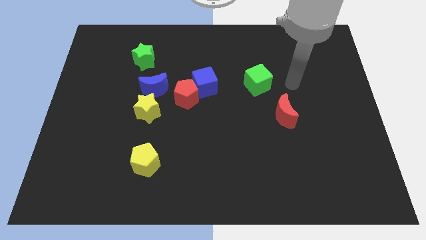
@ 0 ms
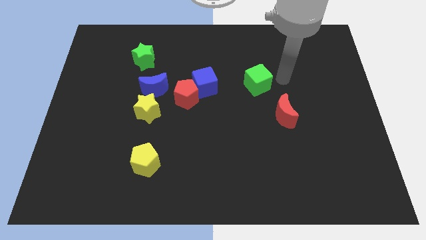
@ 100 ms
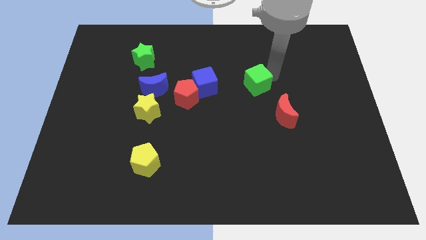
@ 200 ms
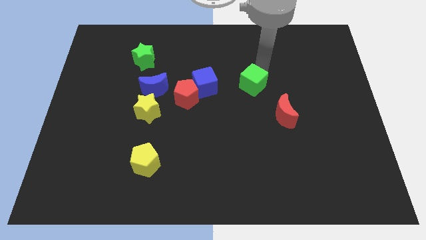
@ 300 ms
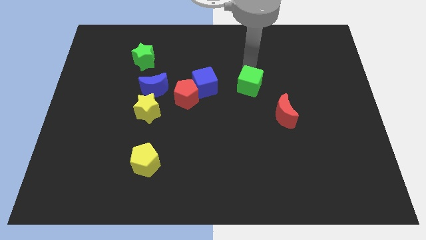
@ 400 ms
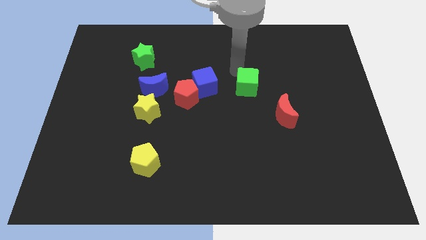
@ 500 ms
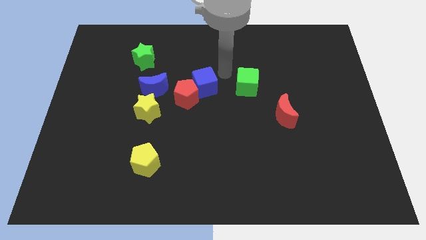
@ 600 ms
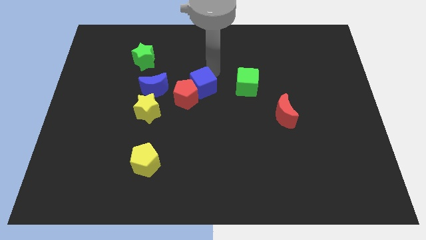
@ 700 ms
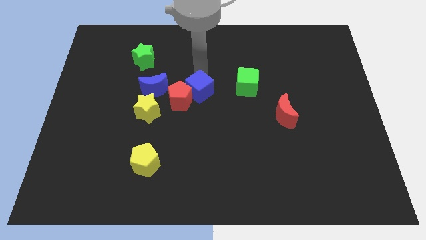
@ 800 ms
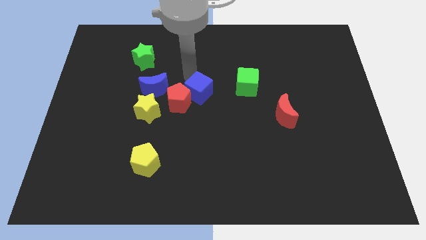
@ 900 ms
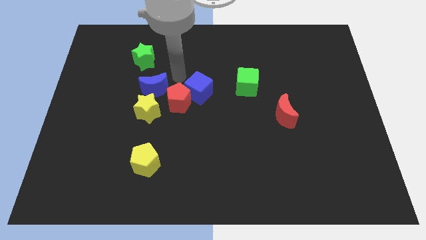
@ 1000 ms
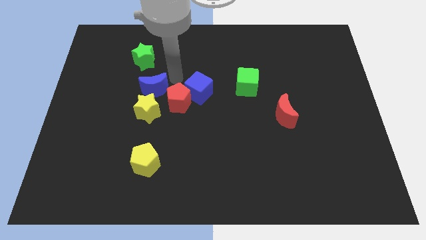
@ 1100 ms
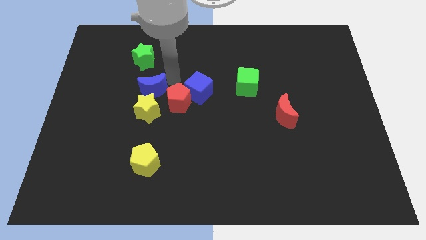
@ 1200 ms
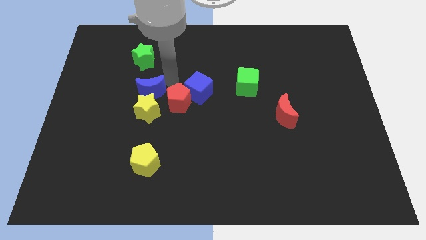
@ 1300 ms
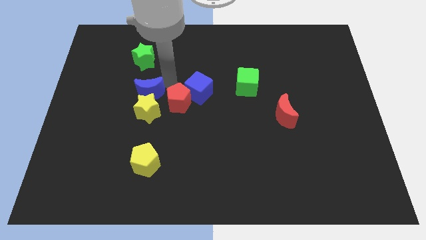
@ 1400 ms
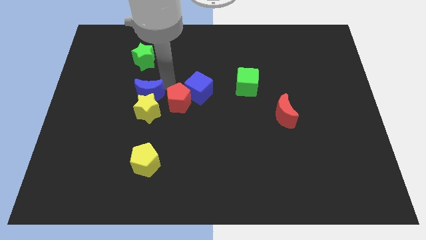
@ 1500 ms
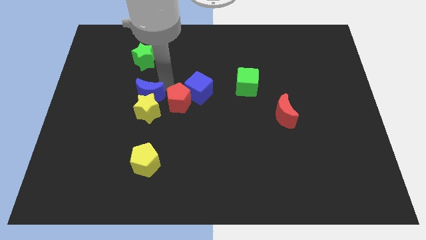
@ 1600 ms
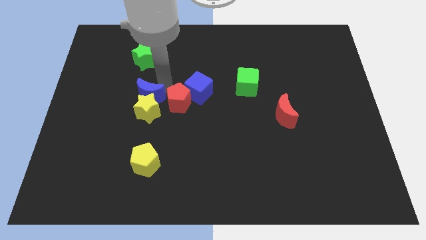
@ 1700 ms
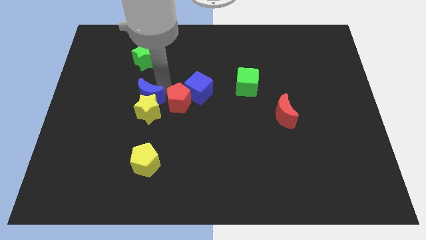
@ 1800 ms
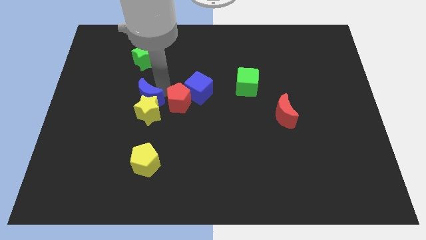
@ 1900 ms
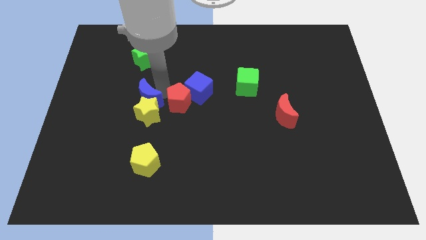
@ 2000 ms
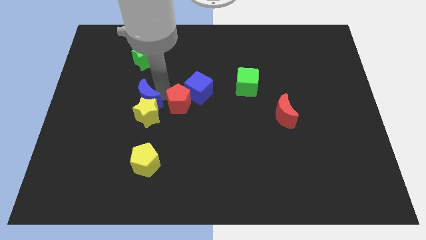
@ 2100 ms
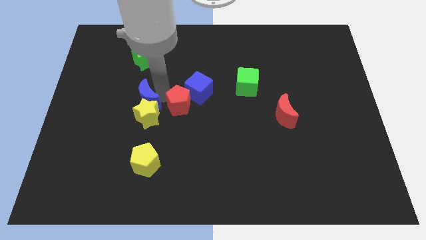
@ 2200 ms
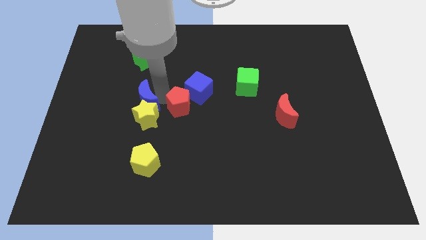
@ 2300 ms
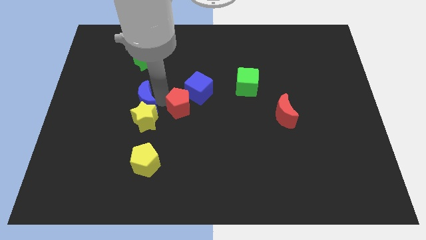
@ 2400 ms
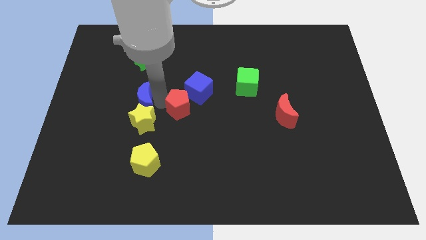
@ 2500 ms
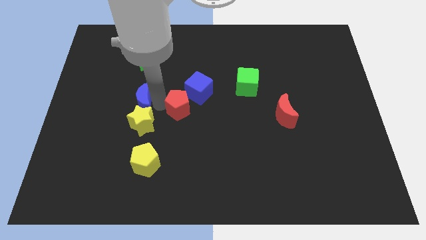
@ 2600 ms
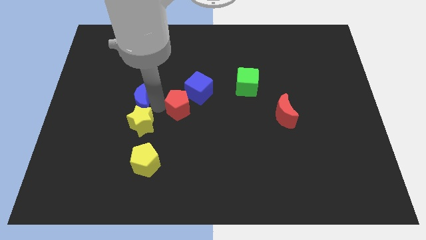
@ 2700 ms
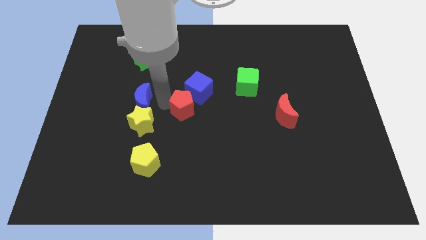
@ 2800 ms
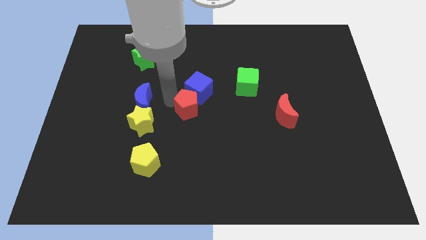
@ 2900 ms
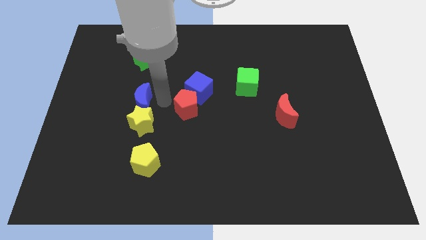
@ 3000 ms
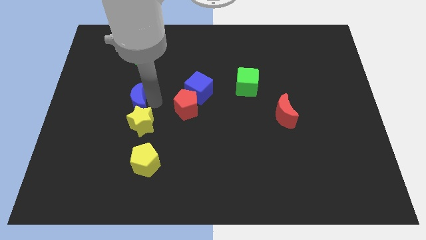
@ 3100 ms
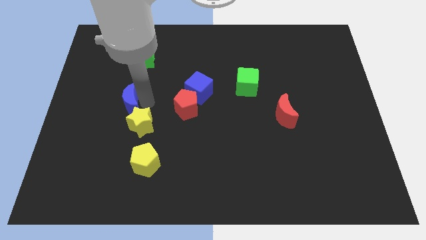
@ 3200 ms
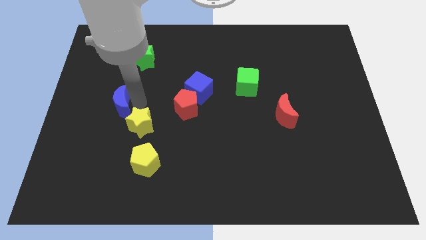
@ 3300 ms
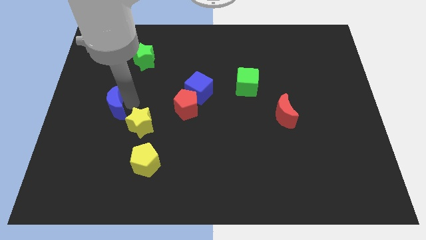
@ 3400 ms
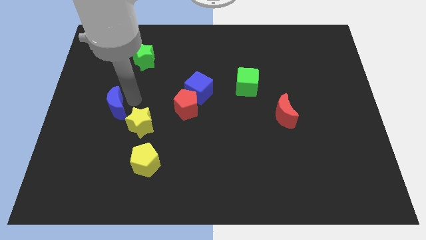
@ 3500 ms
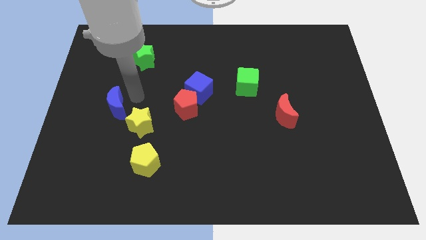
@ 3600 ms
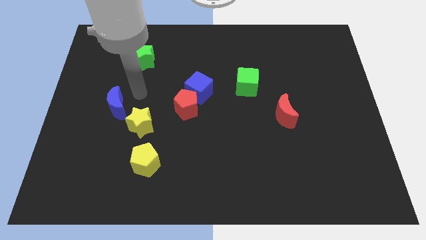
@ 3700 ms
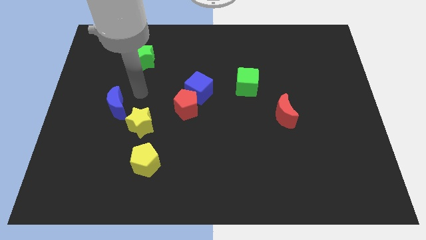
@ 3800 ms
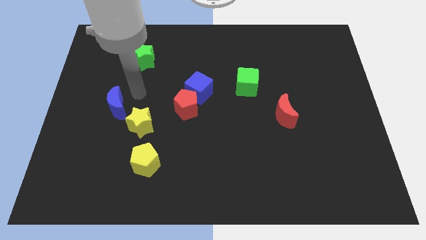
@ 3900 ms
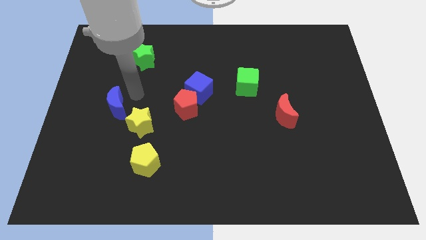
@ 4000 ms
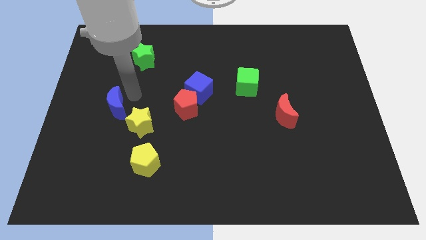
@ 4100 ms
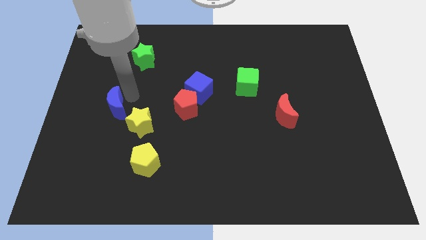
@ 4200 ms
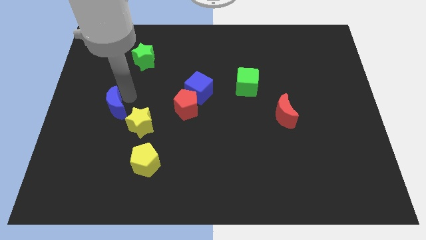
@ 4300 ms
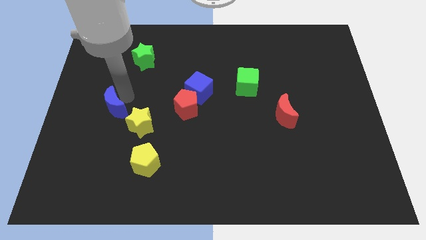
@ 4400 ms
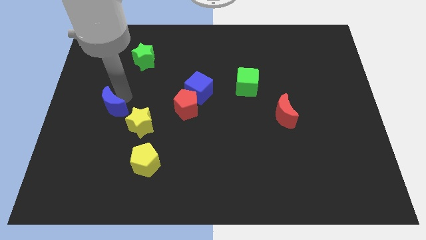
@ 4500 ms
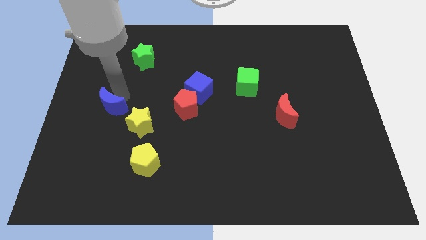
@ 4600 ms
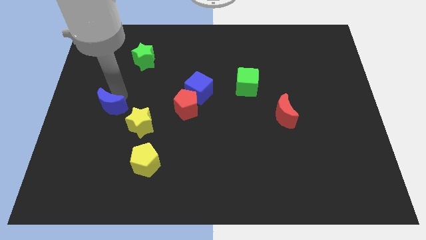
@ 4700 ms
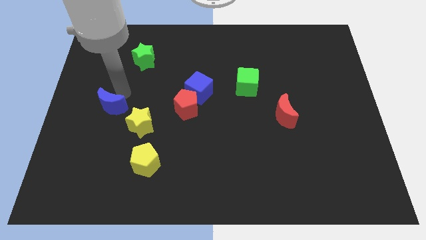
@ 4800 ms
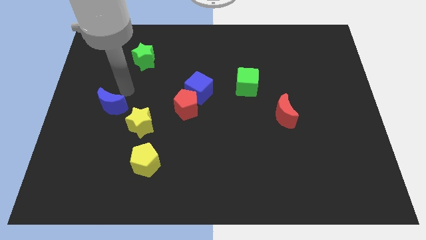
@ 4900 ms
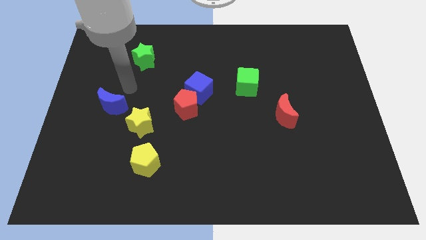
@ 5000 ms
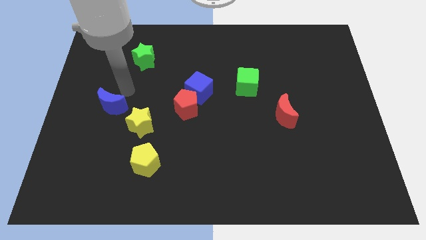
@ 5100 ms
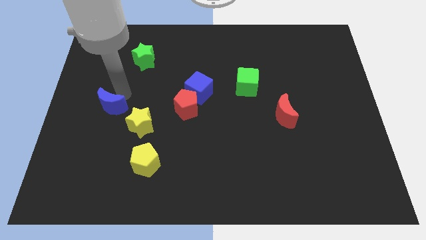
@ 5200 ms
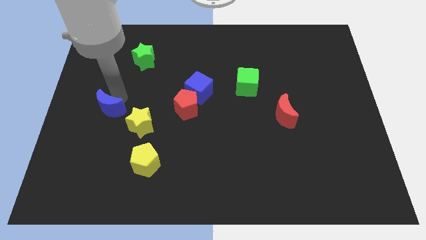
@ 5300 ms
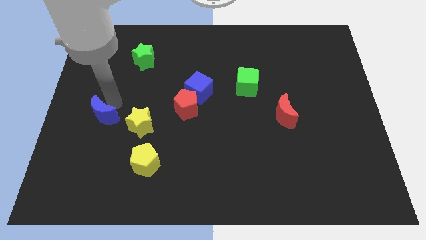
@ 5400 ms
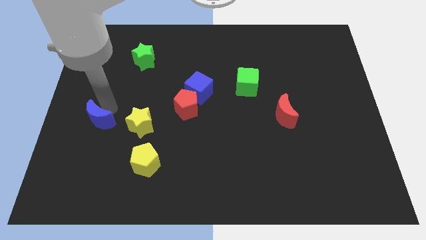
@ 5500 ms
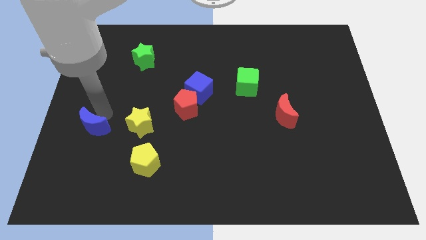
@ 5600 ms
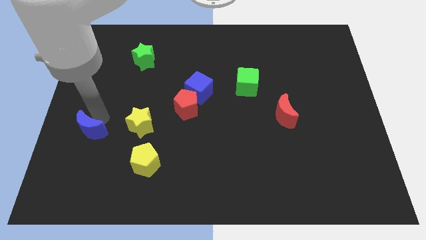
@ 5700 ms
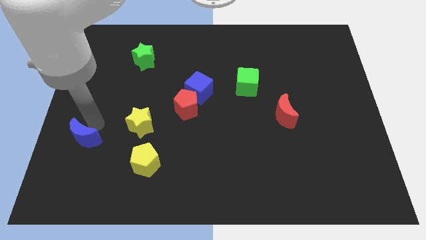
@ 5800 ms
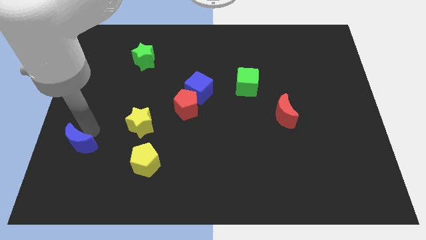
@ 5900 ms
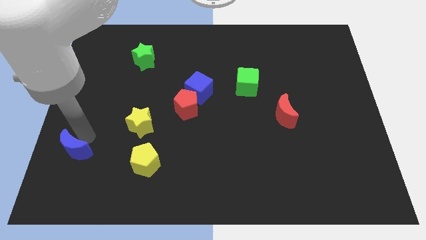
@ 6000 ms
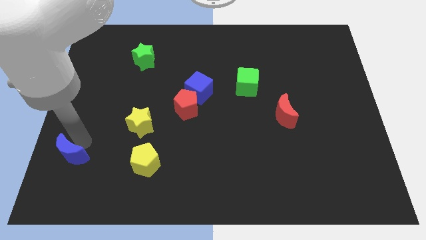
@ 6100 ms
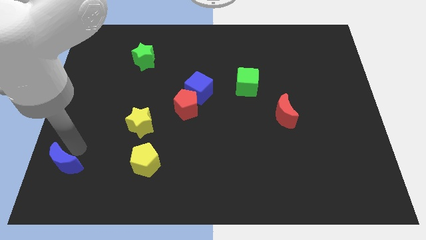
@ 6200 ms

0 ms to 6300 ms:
slide the blue moon to the bottom left
